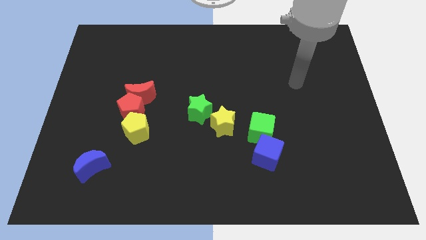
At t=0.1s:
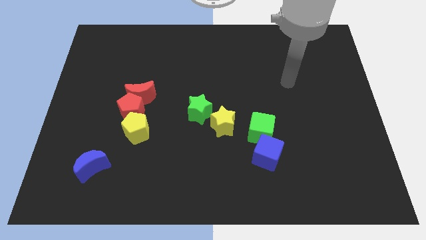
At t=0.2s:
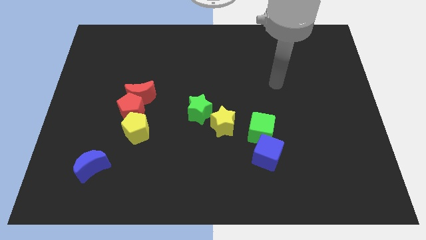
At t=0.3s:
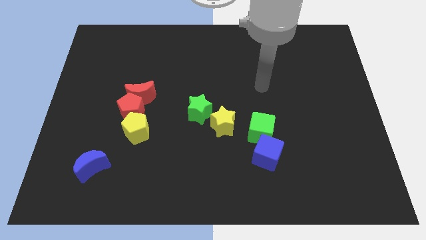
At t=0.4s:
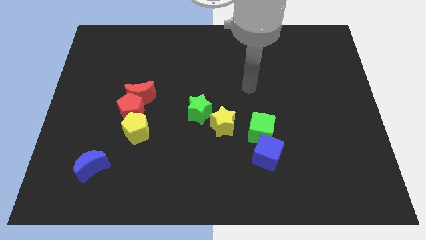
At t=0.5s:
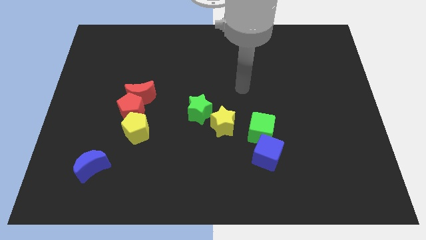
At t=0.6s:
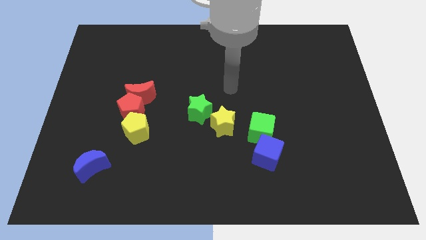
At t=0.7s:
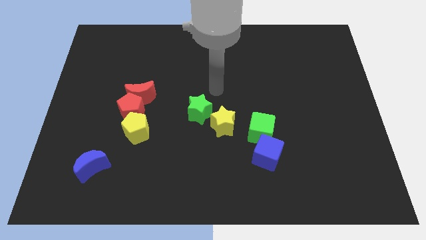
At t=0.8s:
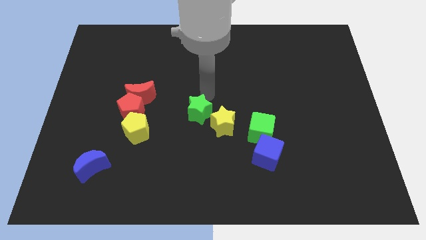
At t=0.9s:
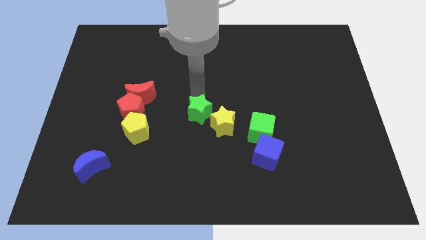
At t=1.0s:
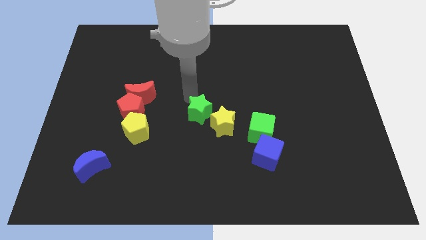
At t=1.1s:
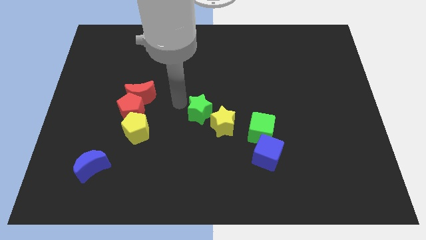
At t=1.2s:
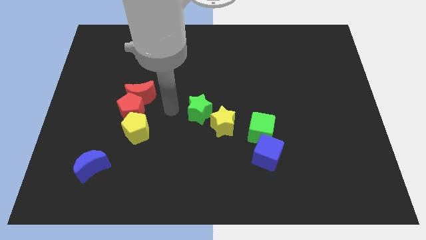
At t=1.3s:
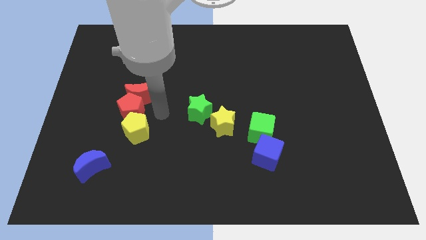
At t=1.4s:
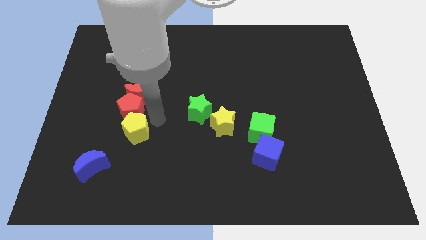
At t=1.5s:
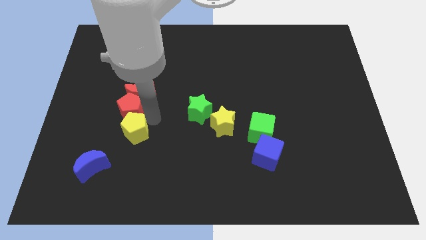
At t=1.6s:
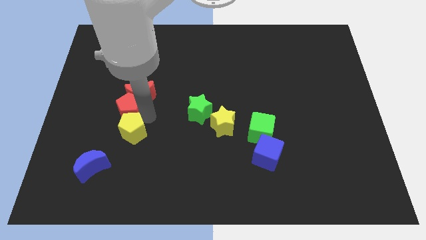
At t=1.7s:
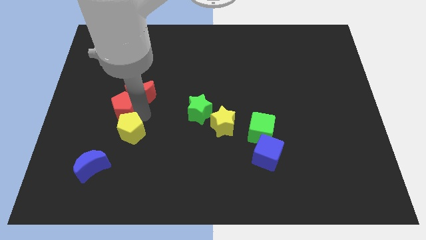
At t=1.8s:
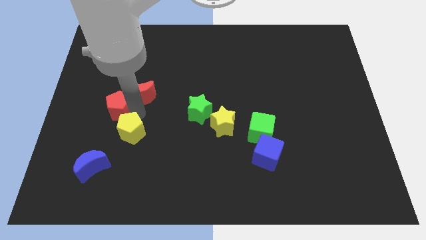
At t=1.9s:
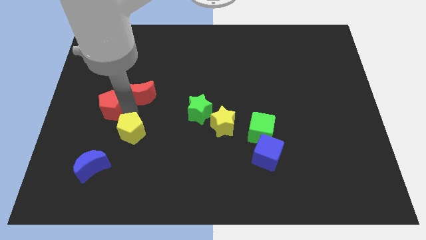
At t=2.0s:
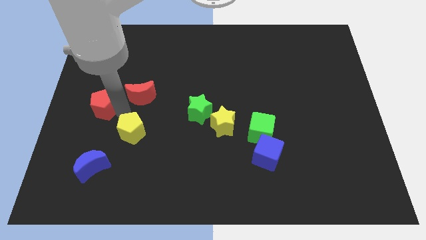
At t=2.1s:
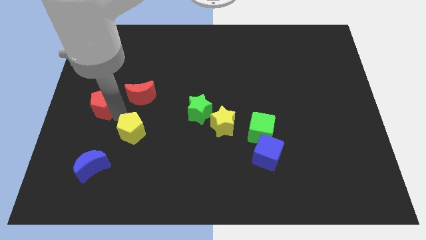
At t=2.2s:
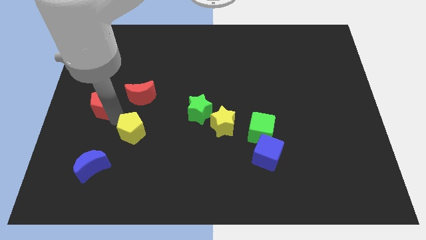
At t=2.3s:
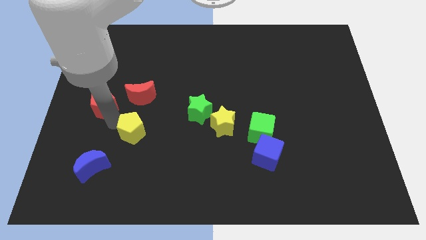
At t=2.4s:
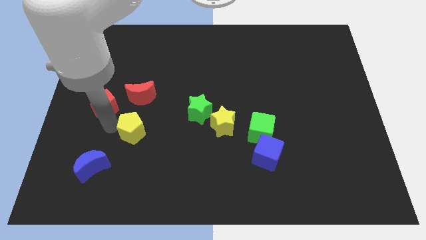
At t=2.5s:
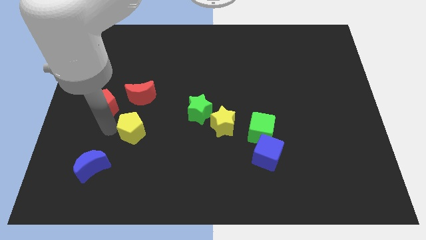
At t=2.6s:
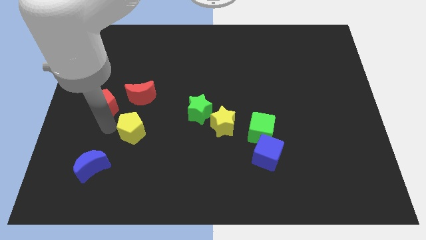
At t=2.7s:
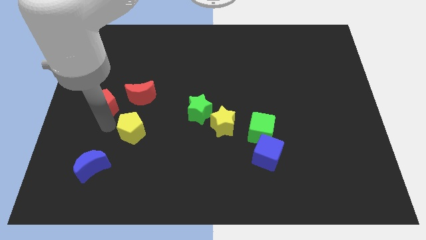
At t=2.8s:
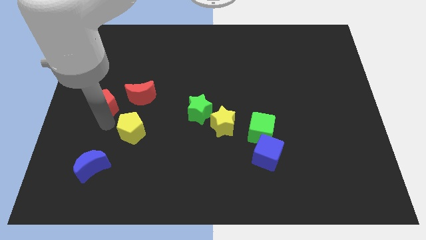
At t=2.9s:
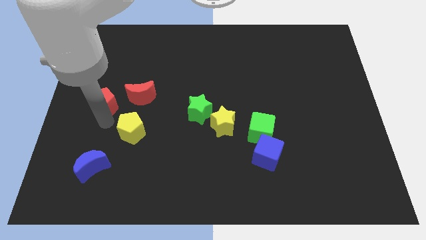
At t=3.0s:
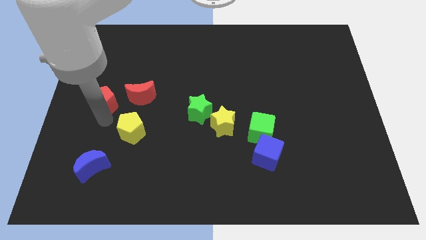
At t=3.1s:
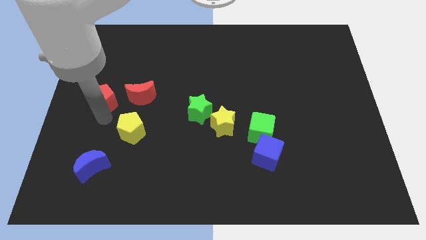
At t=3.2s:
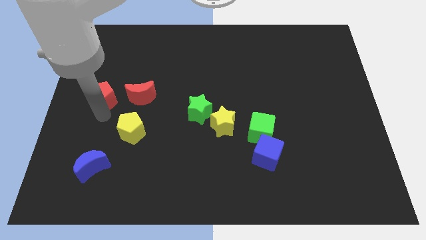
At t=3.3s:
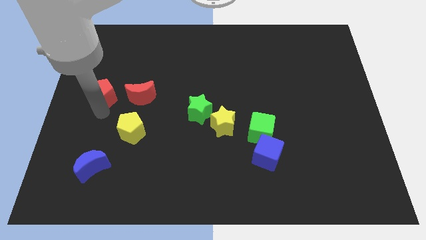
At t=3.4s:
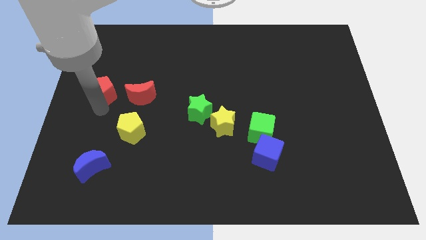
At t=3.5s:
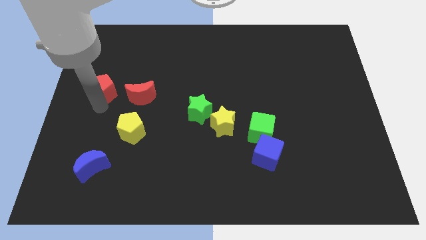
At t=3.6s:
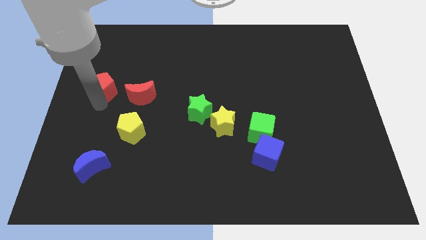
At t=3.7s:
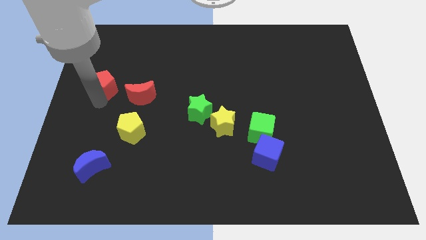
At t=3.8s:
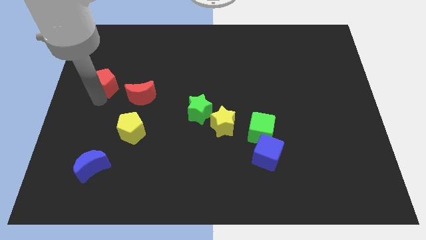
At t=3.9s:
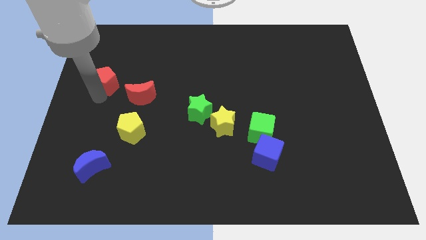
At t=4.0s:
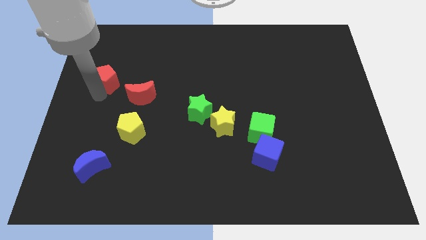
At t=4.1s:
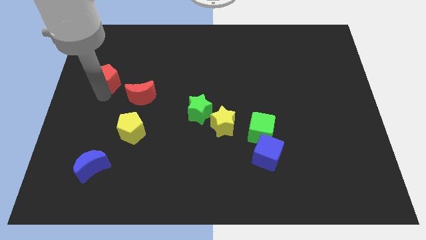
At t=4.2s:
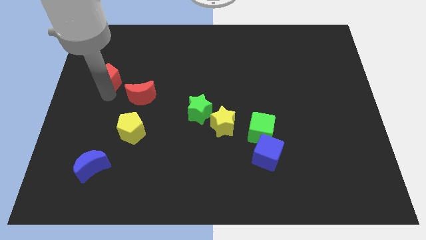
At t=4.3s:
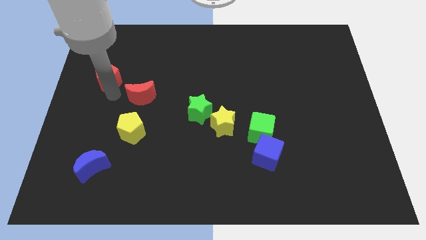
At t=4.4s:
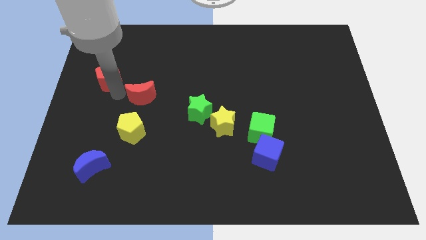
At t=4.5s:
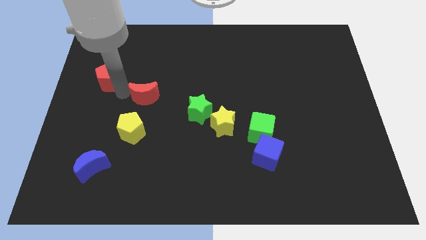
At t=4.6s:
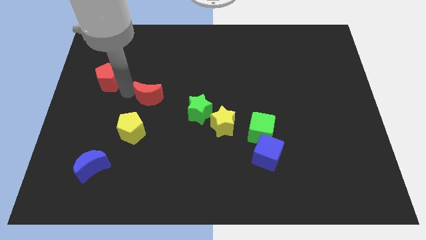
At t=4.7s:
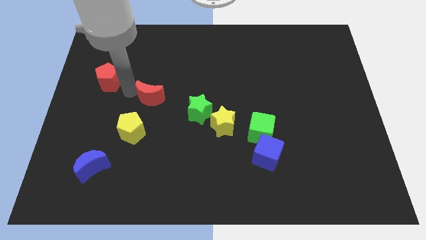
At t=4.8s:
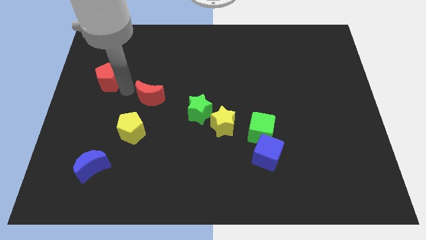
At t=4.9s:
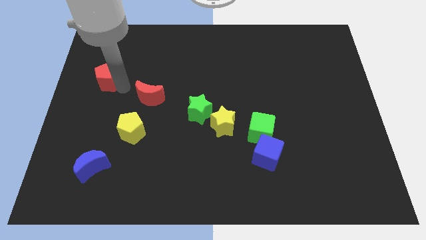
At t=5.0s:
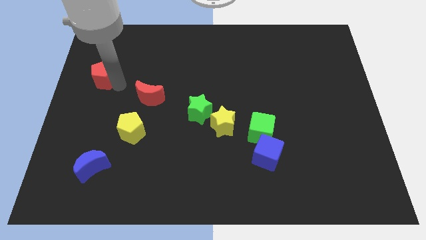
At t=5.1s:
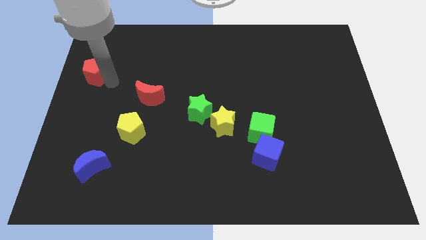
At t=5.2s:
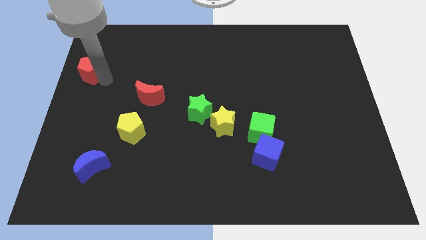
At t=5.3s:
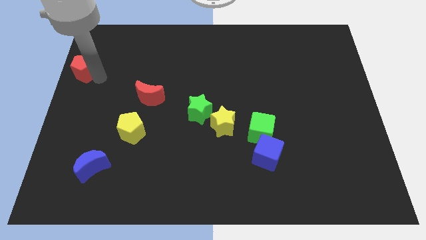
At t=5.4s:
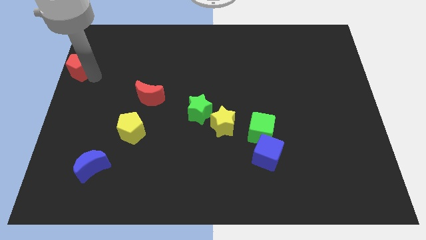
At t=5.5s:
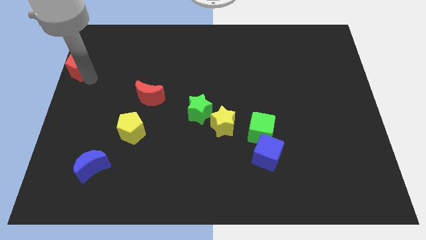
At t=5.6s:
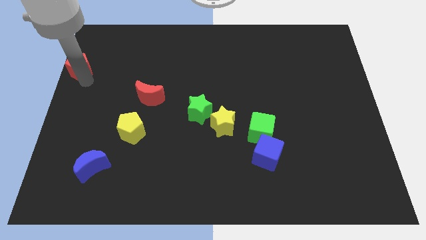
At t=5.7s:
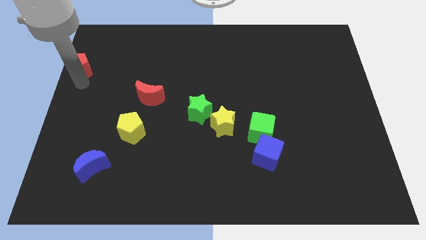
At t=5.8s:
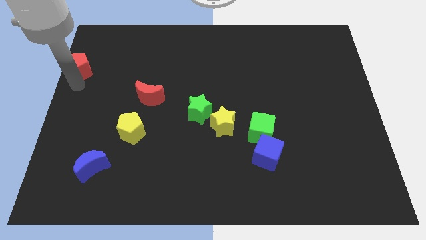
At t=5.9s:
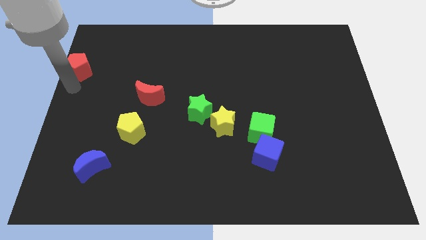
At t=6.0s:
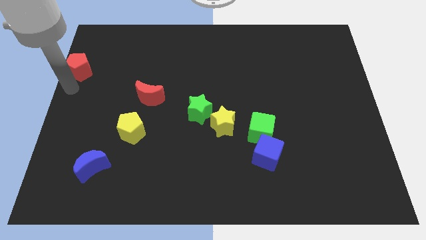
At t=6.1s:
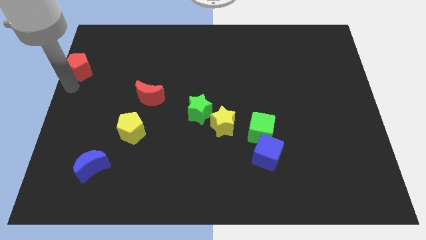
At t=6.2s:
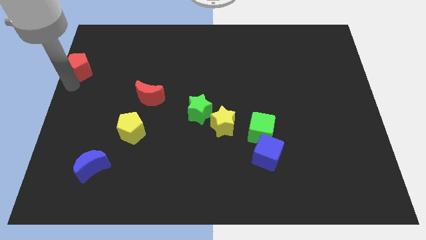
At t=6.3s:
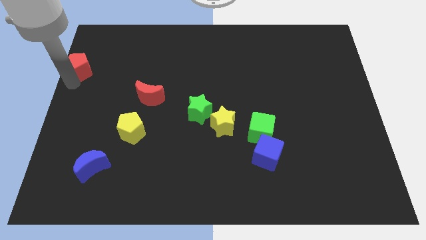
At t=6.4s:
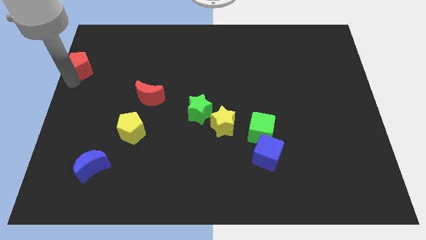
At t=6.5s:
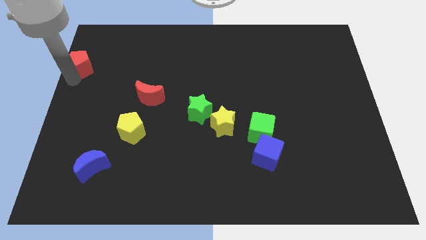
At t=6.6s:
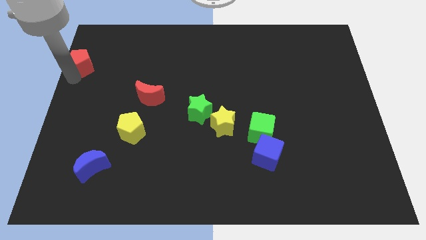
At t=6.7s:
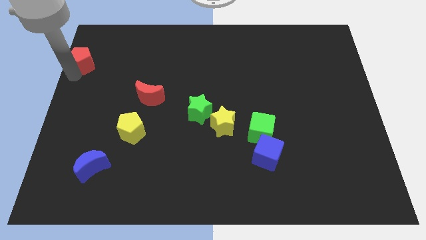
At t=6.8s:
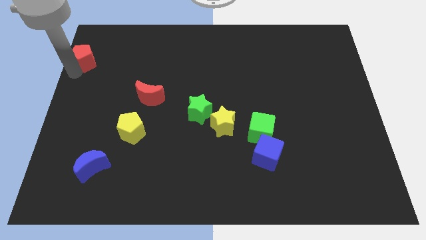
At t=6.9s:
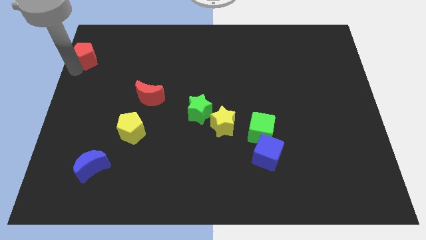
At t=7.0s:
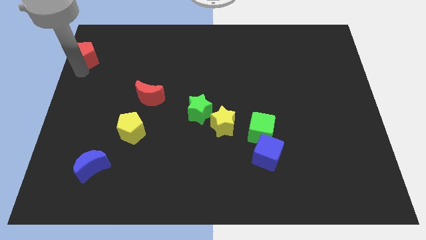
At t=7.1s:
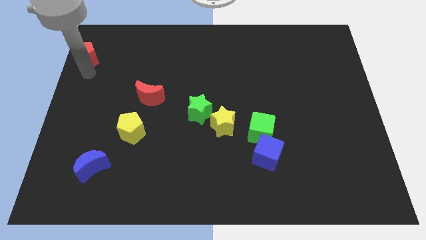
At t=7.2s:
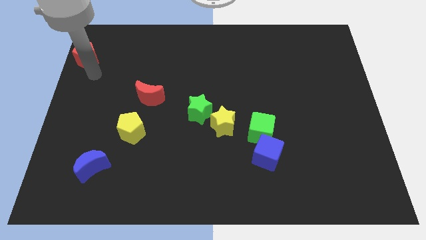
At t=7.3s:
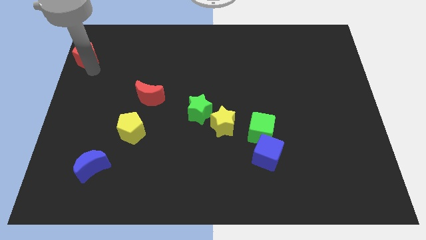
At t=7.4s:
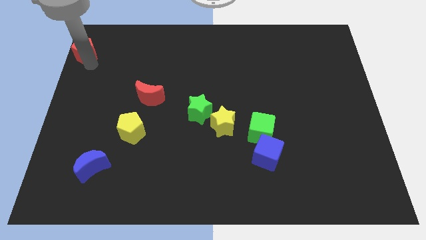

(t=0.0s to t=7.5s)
put the red pentagon to the top left corner
